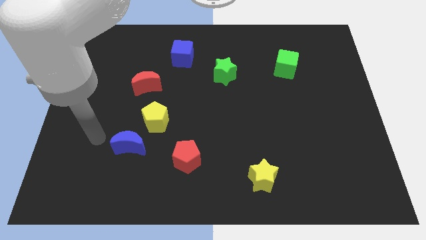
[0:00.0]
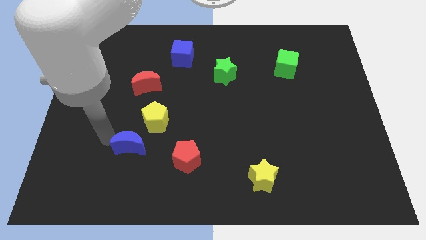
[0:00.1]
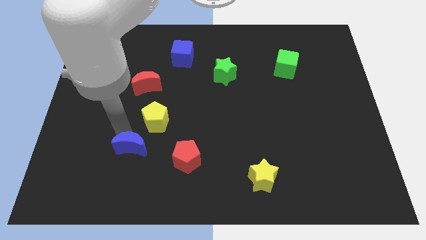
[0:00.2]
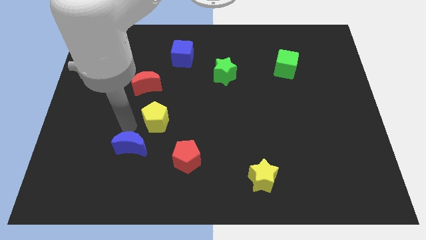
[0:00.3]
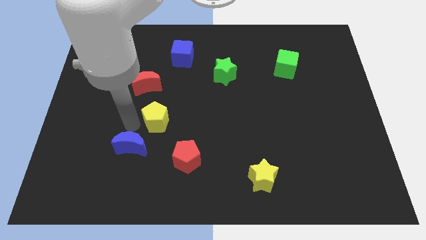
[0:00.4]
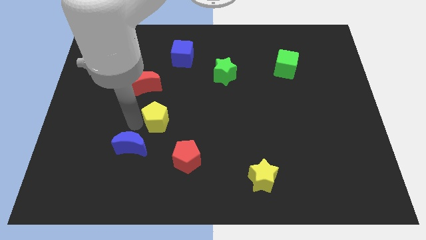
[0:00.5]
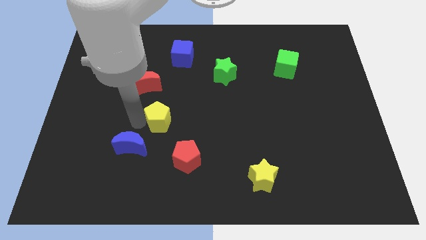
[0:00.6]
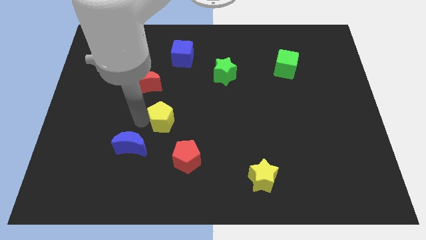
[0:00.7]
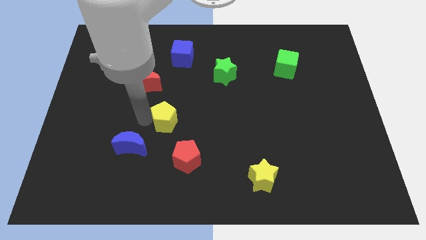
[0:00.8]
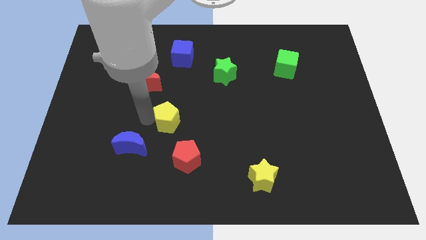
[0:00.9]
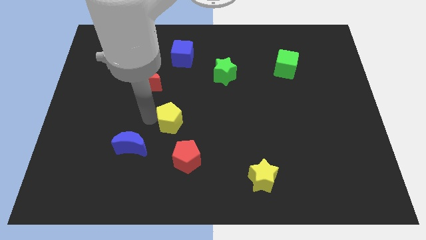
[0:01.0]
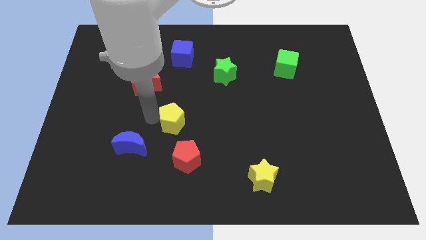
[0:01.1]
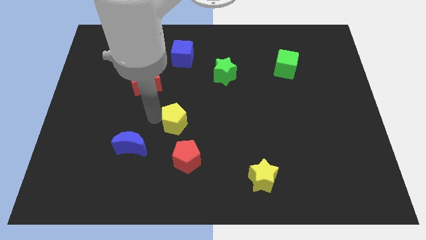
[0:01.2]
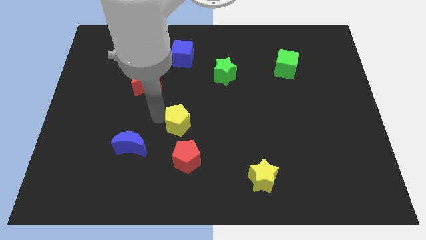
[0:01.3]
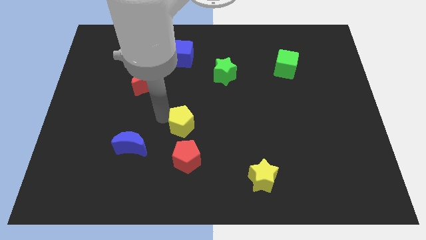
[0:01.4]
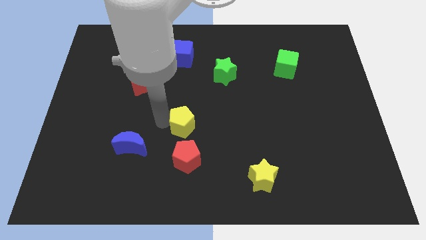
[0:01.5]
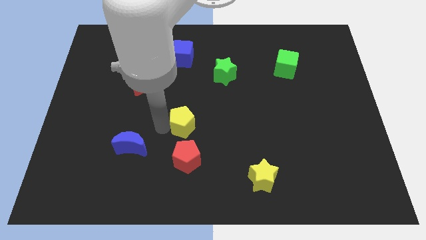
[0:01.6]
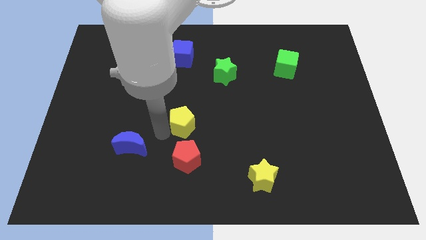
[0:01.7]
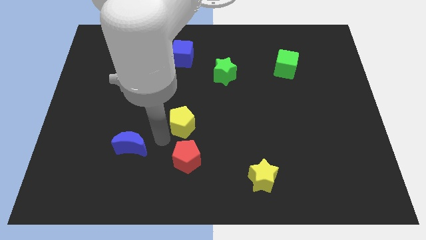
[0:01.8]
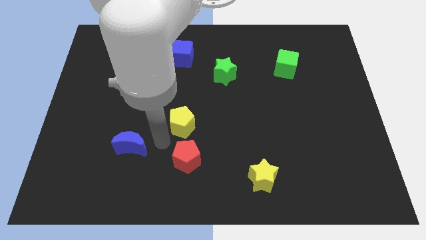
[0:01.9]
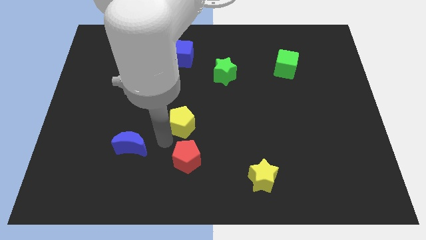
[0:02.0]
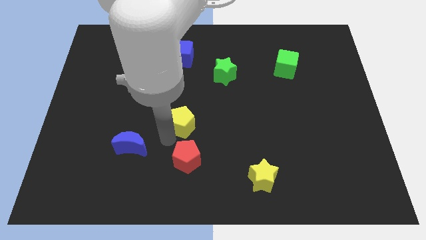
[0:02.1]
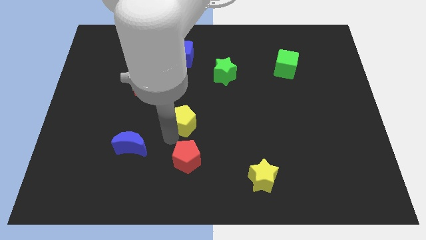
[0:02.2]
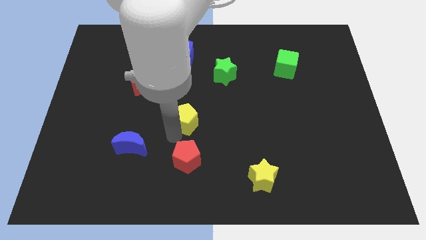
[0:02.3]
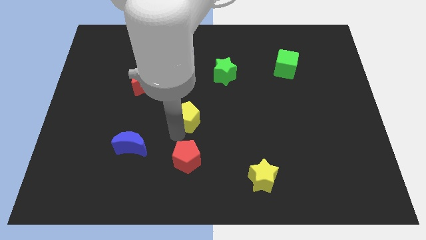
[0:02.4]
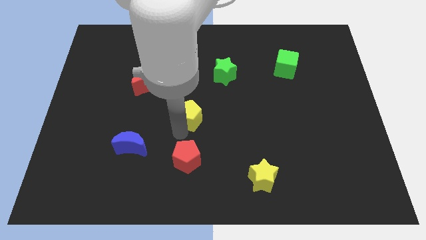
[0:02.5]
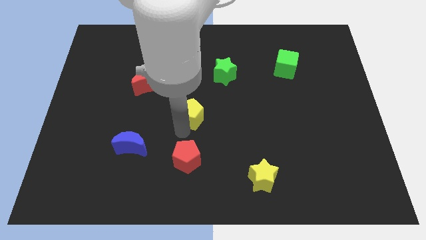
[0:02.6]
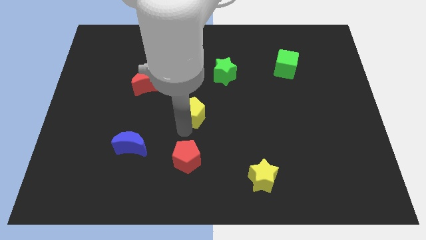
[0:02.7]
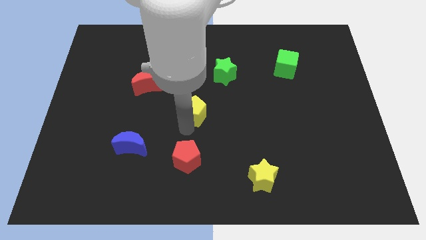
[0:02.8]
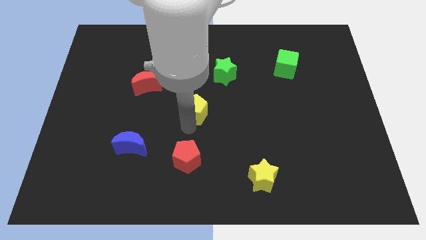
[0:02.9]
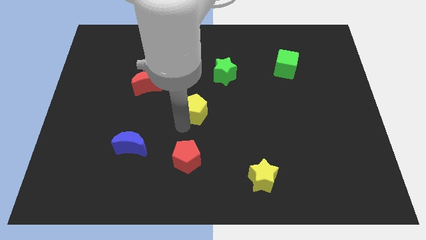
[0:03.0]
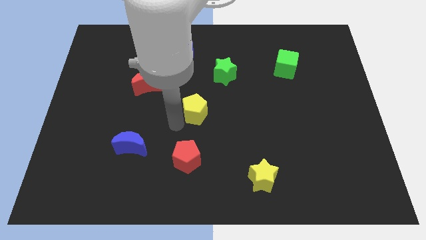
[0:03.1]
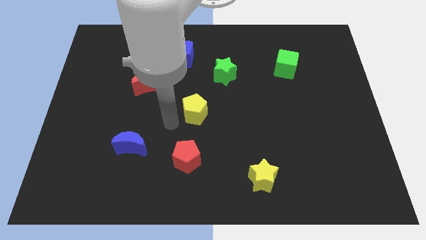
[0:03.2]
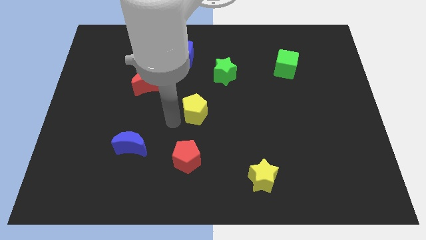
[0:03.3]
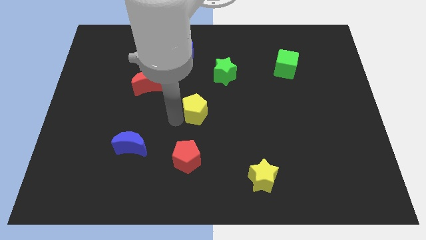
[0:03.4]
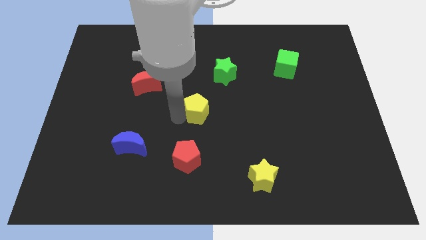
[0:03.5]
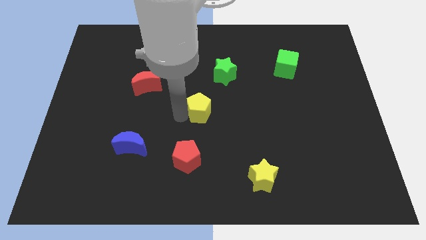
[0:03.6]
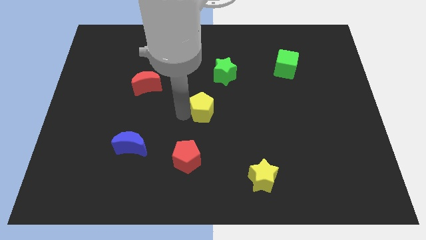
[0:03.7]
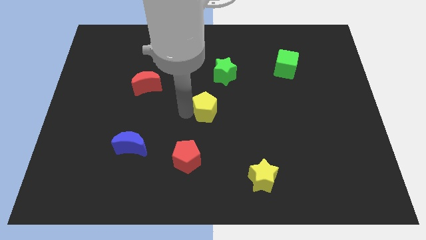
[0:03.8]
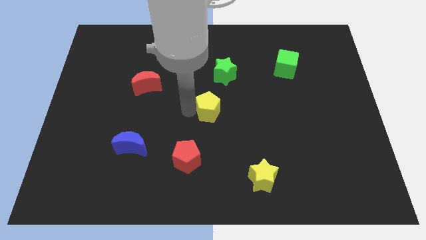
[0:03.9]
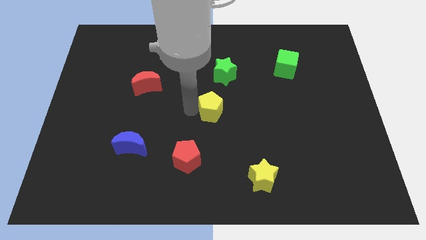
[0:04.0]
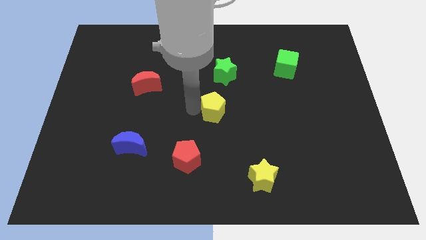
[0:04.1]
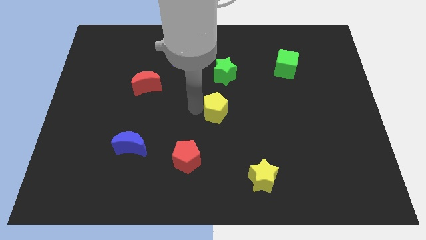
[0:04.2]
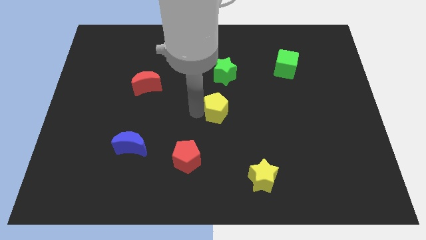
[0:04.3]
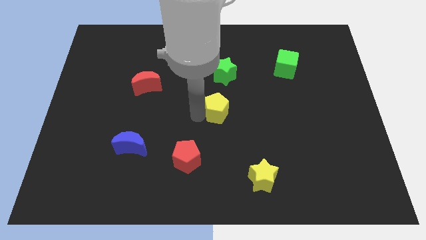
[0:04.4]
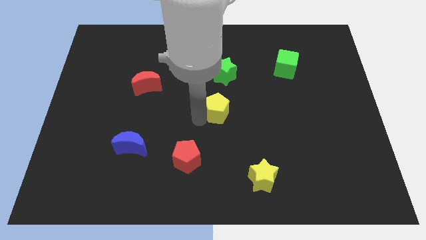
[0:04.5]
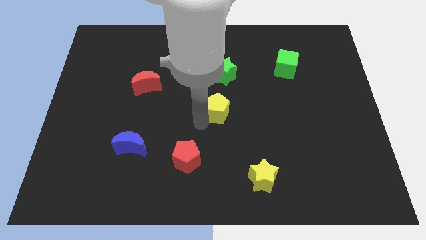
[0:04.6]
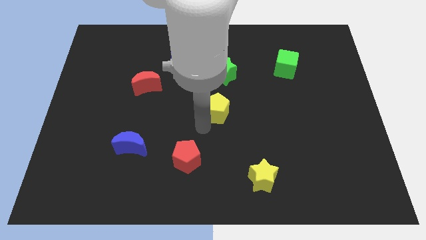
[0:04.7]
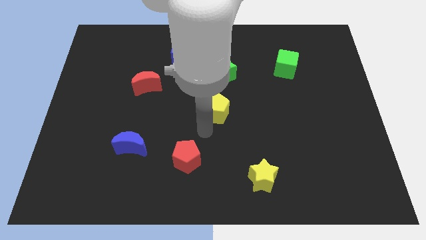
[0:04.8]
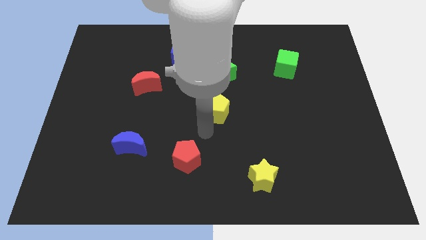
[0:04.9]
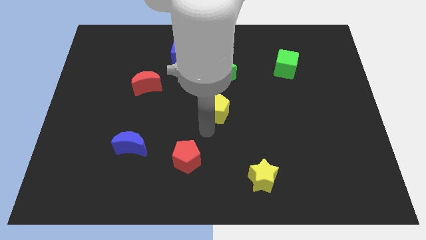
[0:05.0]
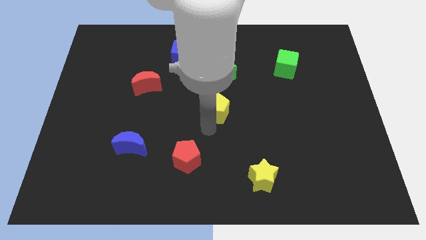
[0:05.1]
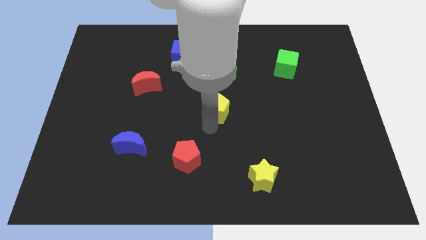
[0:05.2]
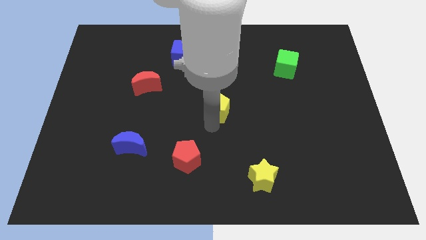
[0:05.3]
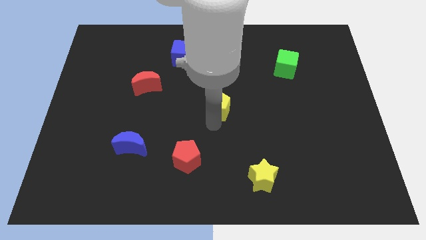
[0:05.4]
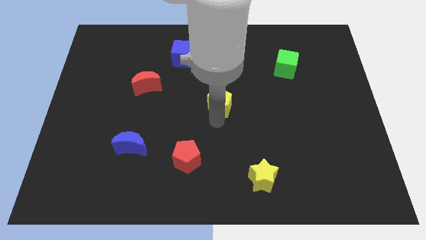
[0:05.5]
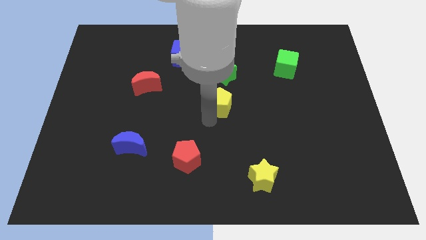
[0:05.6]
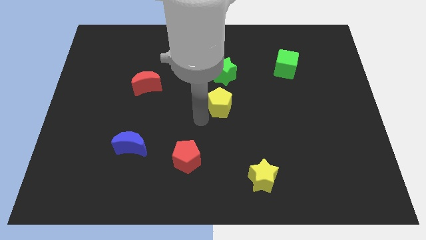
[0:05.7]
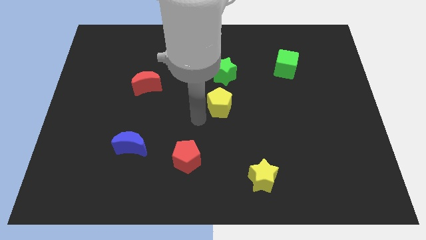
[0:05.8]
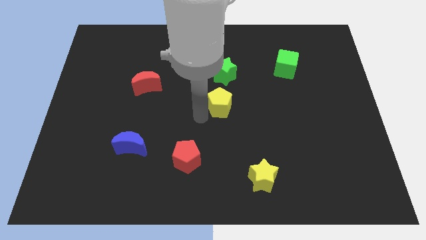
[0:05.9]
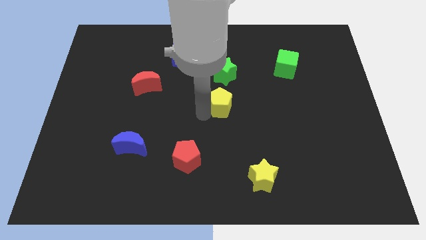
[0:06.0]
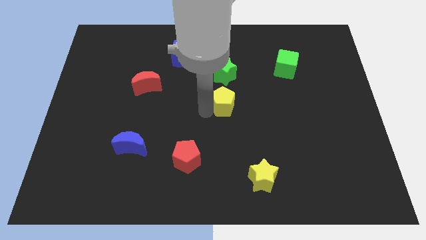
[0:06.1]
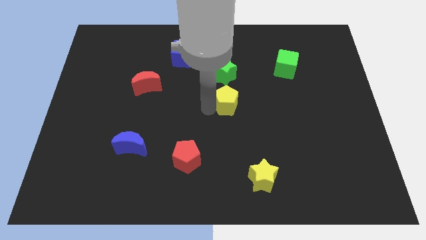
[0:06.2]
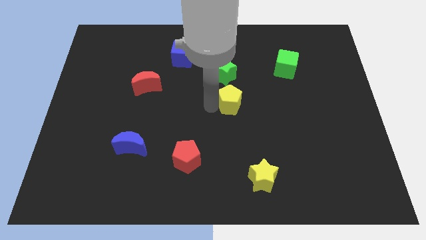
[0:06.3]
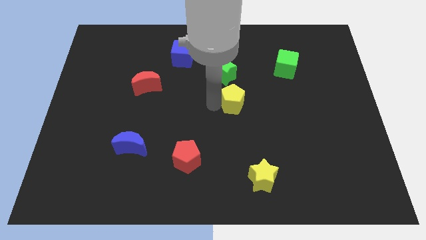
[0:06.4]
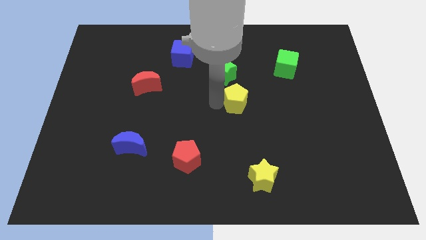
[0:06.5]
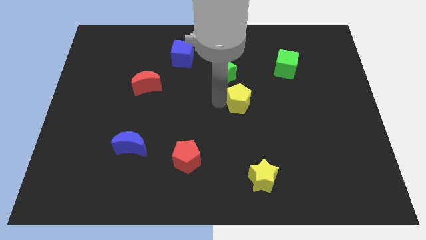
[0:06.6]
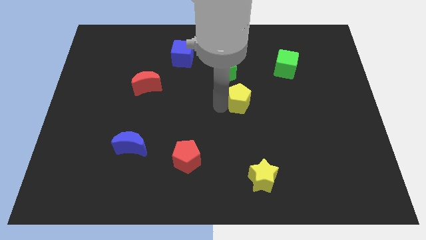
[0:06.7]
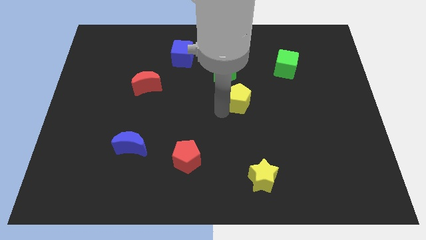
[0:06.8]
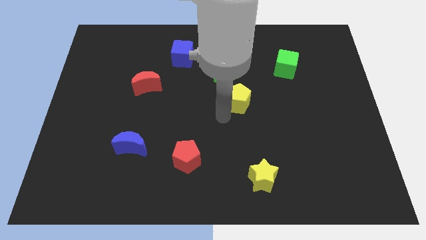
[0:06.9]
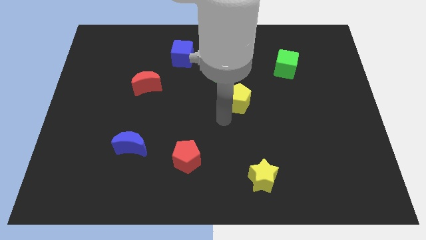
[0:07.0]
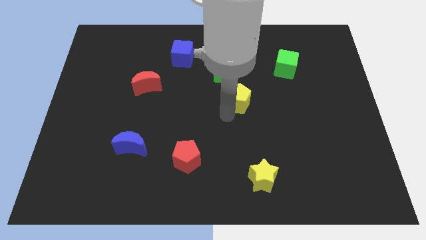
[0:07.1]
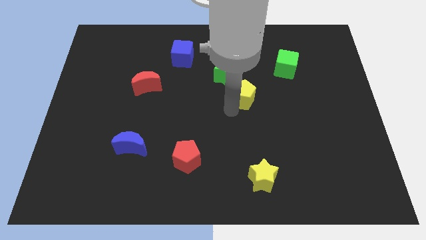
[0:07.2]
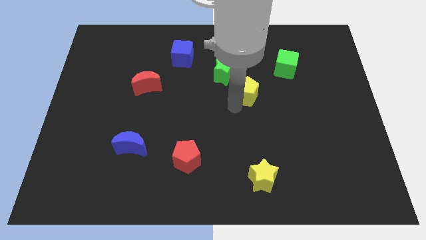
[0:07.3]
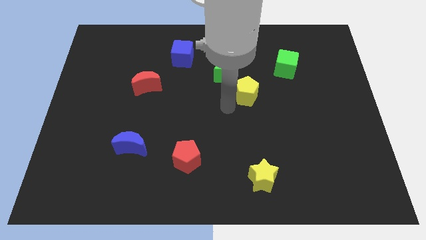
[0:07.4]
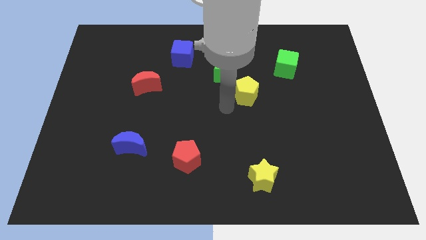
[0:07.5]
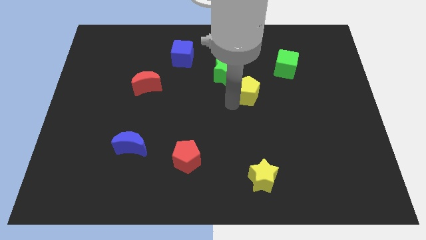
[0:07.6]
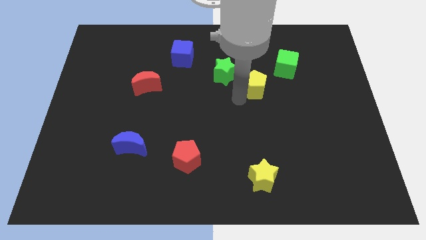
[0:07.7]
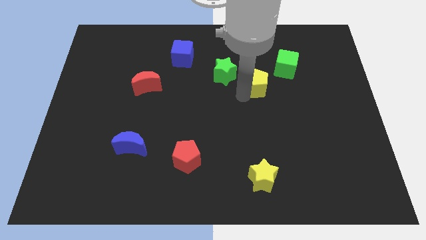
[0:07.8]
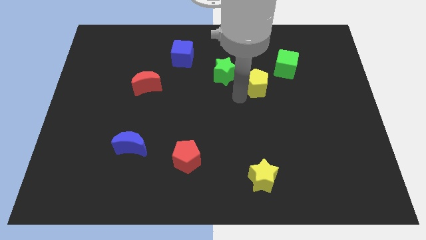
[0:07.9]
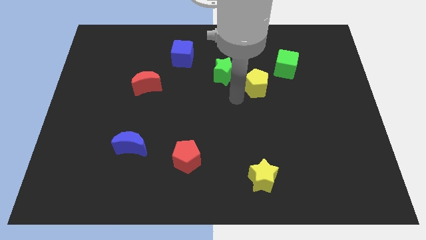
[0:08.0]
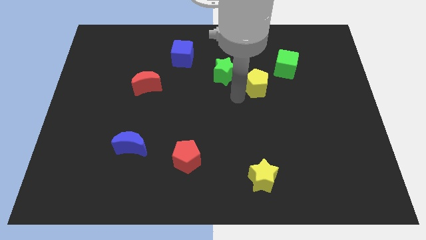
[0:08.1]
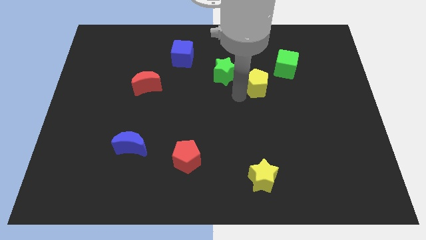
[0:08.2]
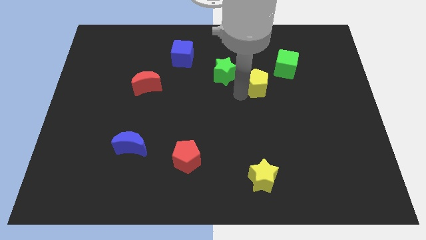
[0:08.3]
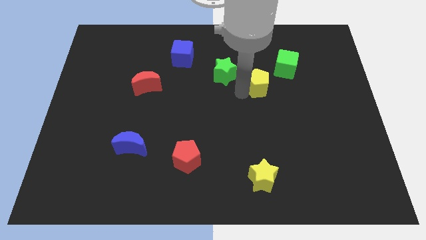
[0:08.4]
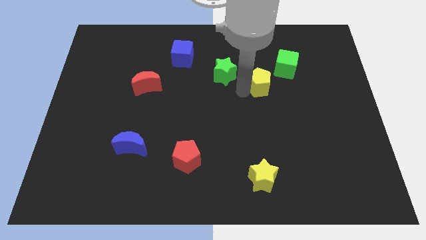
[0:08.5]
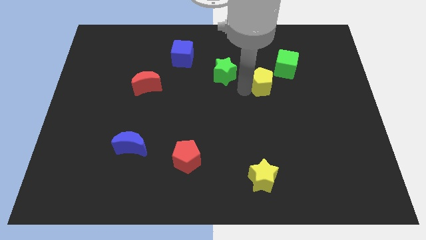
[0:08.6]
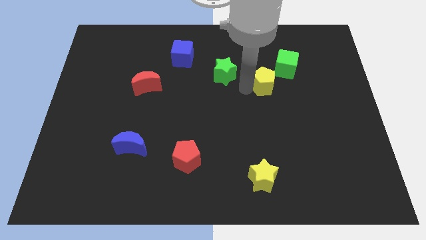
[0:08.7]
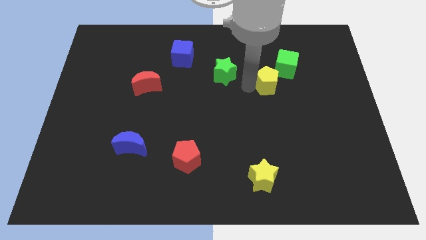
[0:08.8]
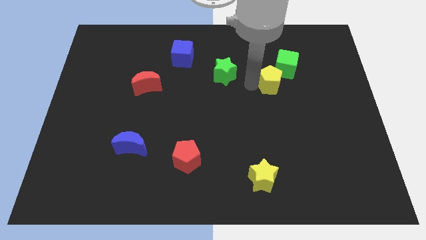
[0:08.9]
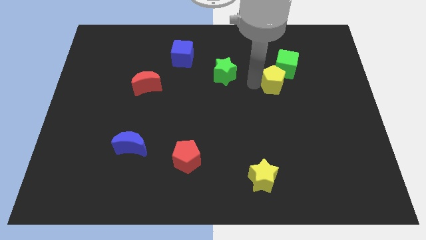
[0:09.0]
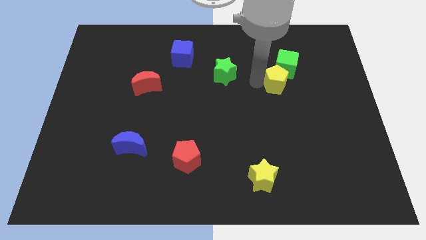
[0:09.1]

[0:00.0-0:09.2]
put the yellow pentagon next to the green cube
